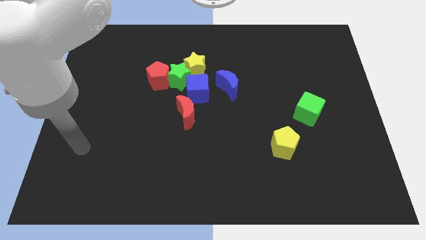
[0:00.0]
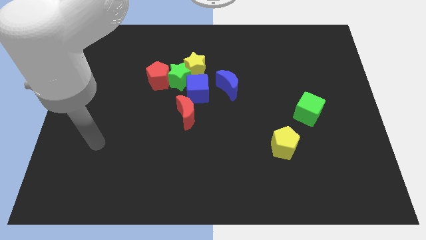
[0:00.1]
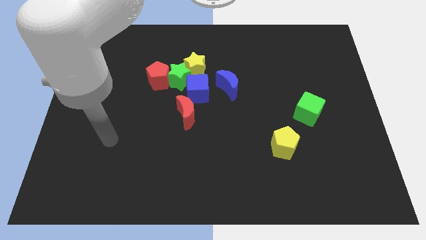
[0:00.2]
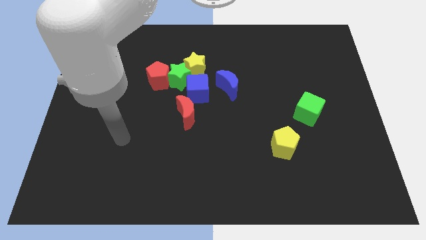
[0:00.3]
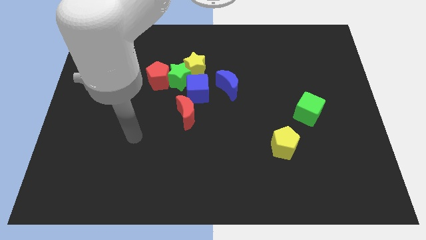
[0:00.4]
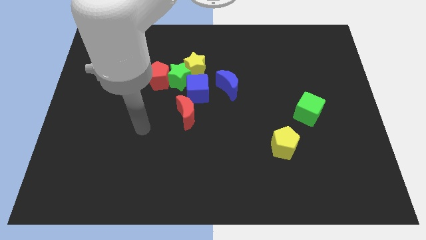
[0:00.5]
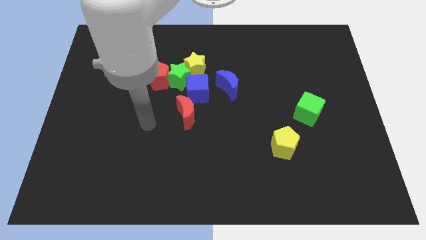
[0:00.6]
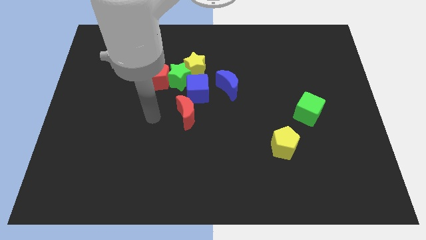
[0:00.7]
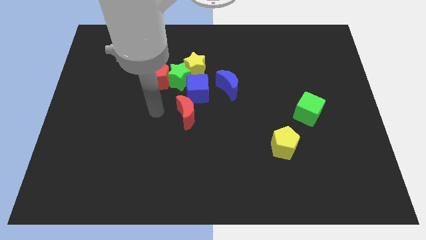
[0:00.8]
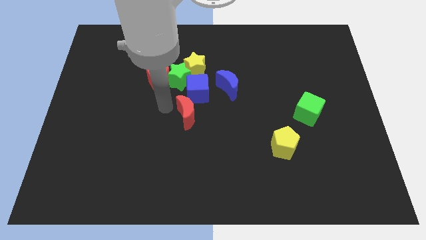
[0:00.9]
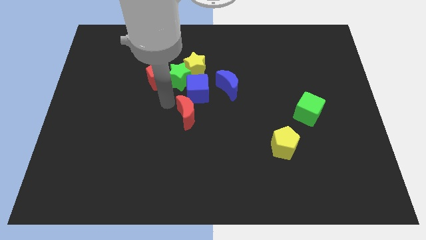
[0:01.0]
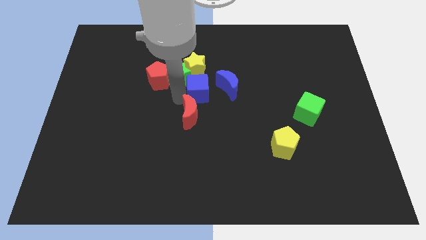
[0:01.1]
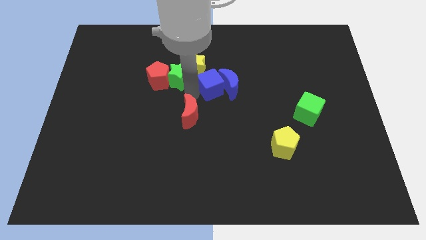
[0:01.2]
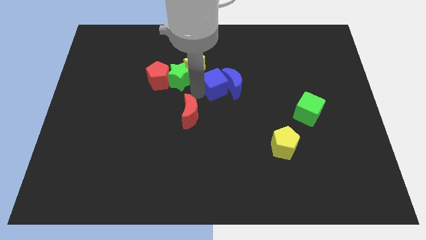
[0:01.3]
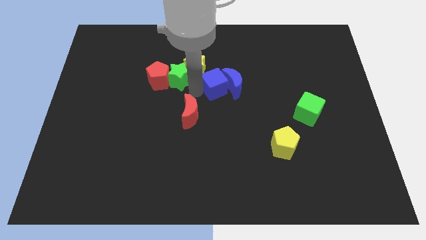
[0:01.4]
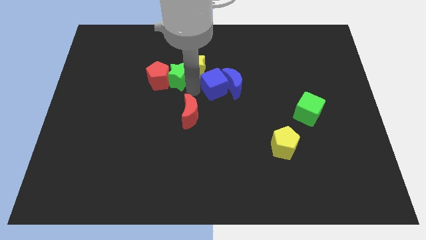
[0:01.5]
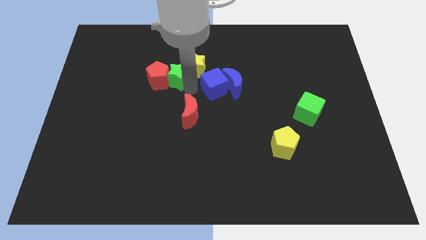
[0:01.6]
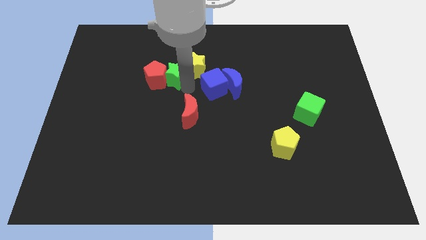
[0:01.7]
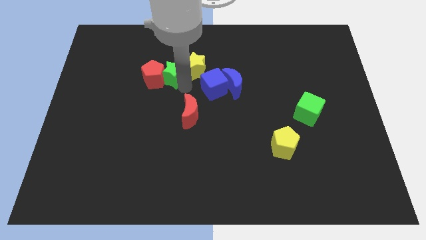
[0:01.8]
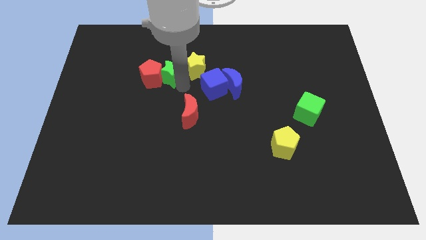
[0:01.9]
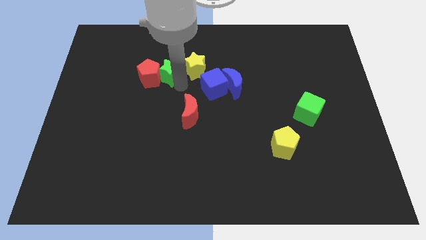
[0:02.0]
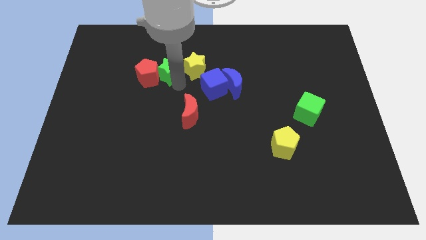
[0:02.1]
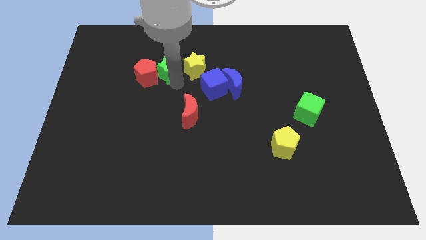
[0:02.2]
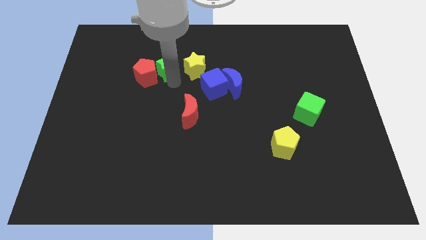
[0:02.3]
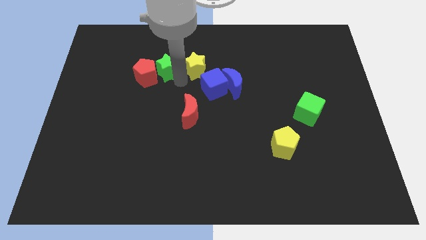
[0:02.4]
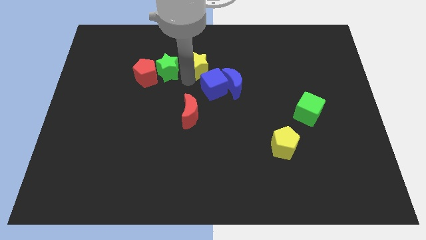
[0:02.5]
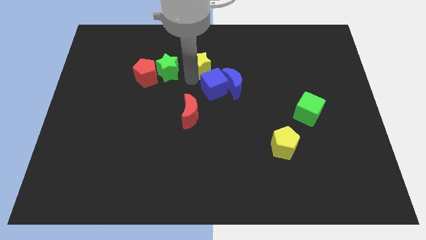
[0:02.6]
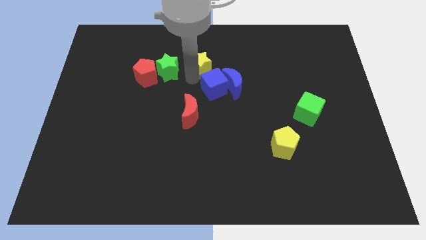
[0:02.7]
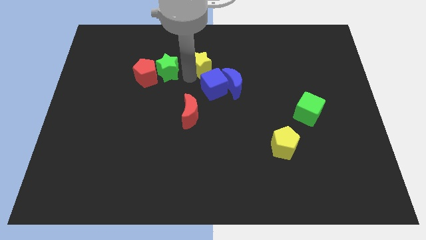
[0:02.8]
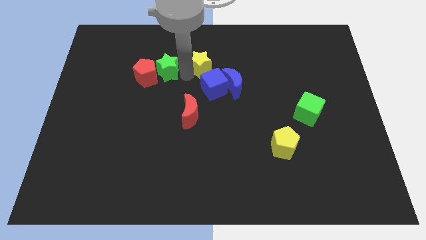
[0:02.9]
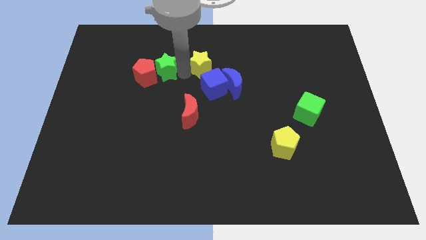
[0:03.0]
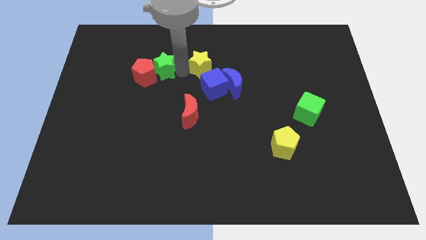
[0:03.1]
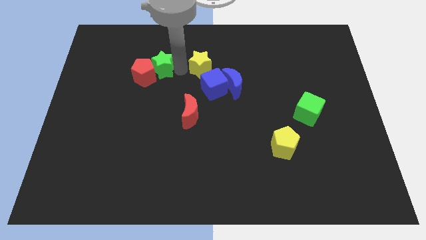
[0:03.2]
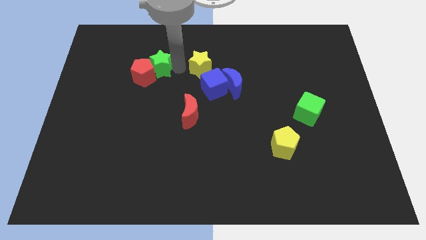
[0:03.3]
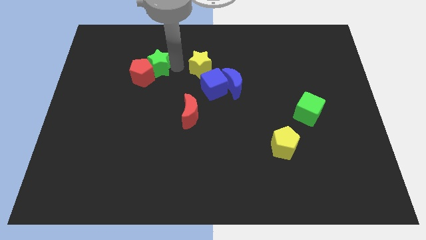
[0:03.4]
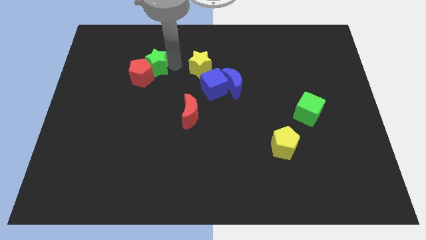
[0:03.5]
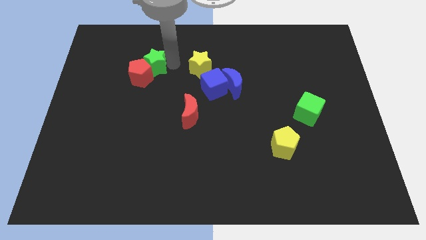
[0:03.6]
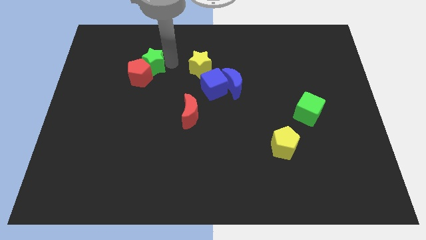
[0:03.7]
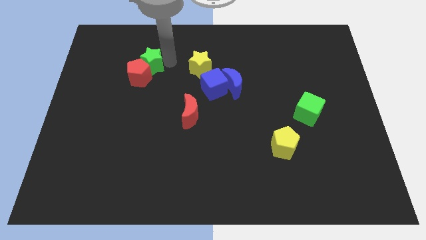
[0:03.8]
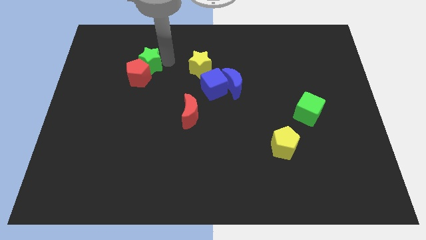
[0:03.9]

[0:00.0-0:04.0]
pull the green star apart from the clump

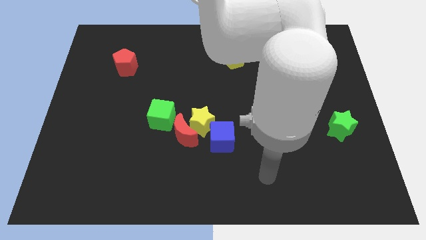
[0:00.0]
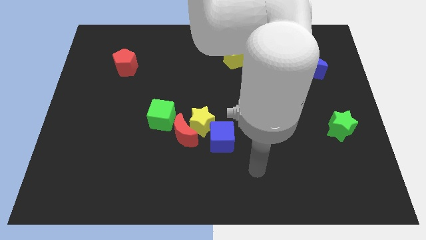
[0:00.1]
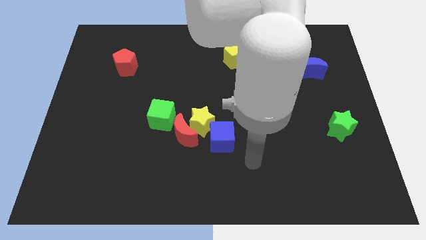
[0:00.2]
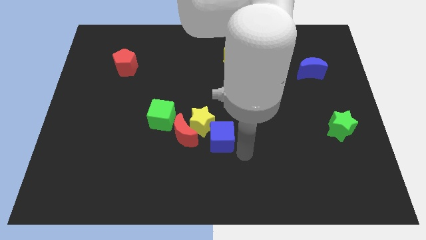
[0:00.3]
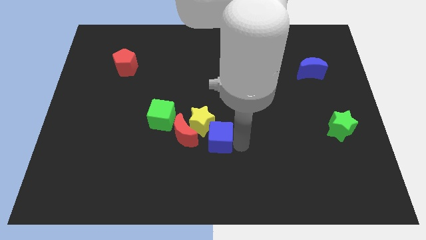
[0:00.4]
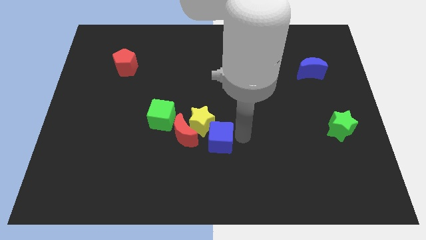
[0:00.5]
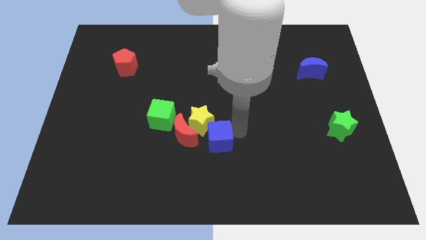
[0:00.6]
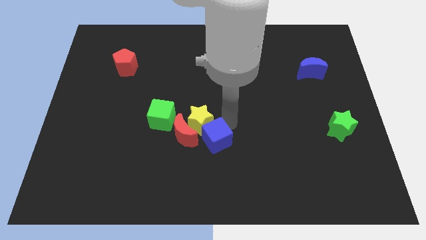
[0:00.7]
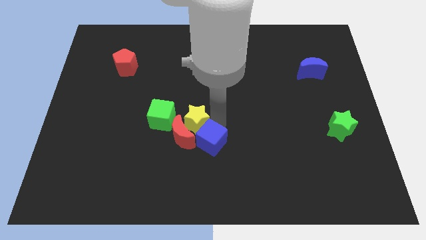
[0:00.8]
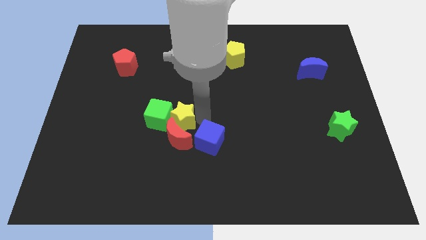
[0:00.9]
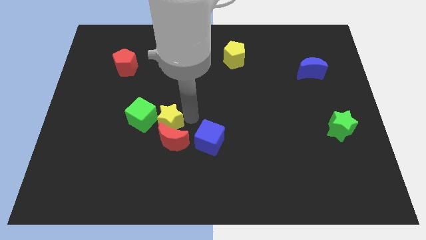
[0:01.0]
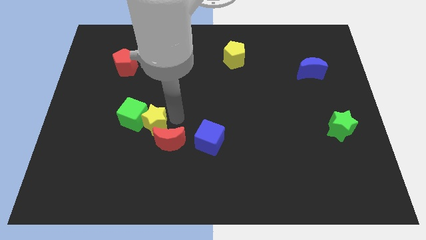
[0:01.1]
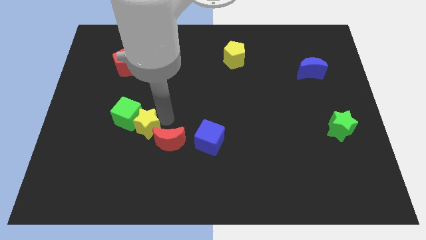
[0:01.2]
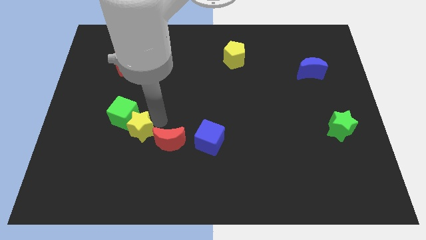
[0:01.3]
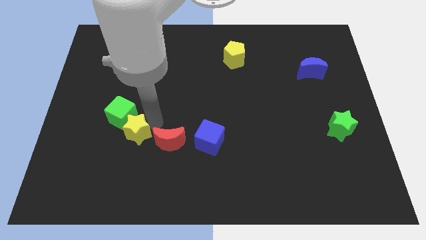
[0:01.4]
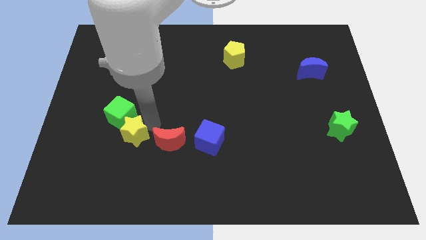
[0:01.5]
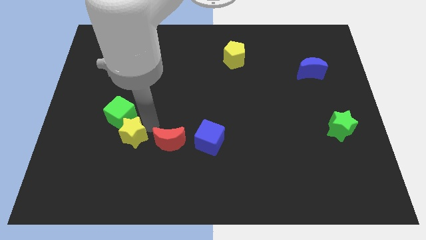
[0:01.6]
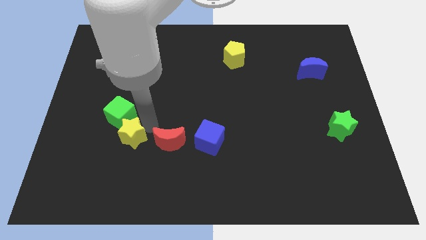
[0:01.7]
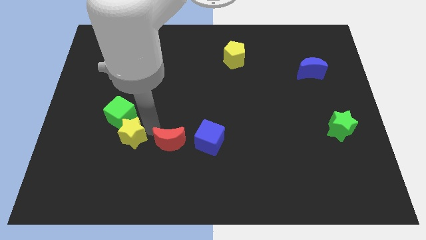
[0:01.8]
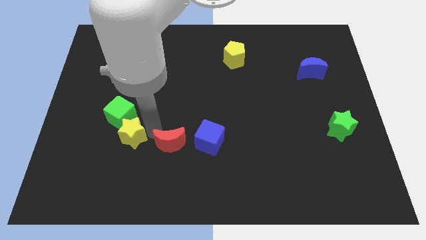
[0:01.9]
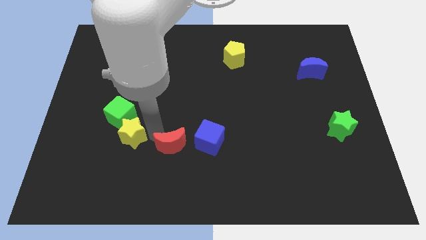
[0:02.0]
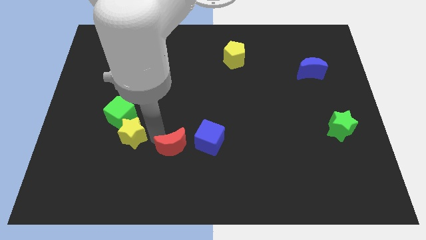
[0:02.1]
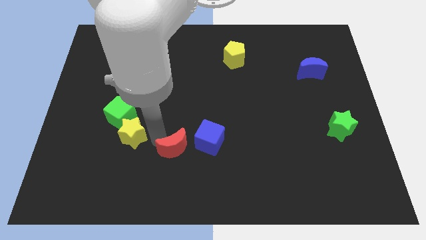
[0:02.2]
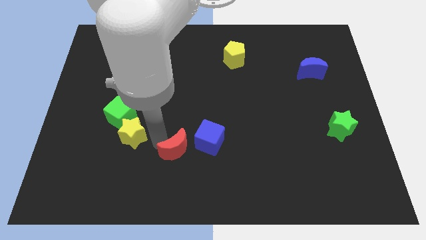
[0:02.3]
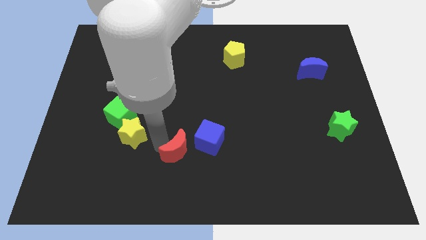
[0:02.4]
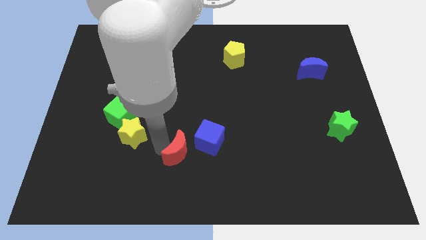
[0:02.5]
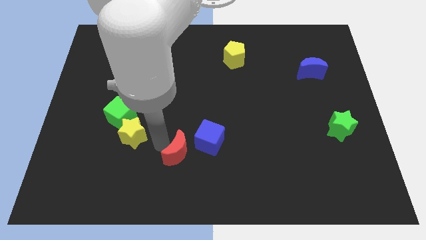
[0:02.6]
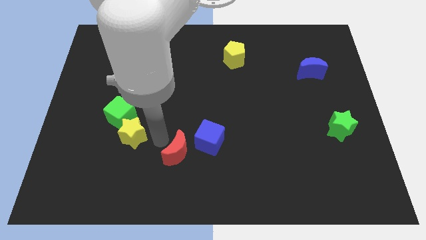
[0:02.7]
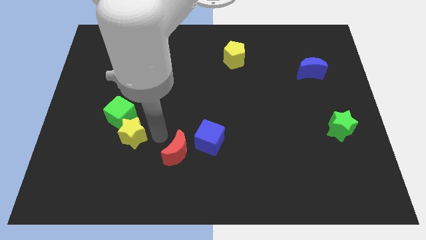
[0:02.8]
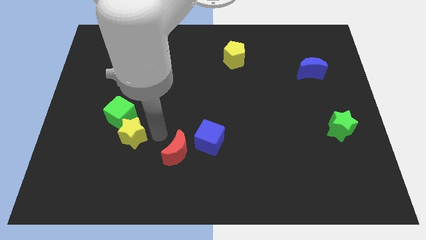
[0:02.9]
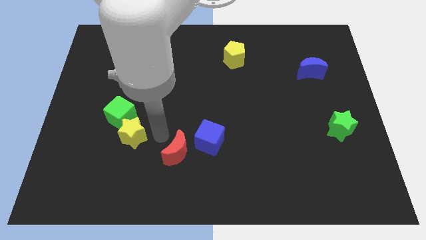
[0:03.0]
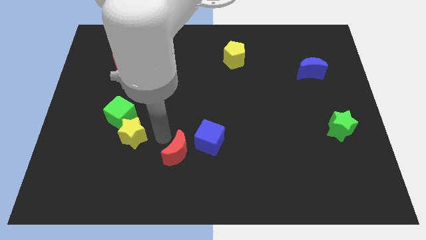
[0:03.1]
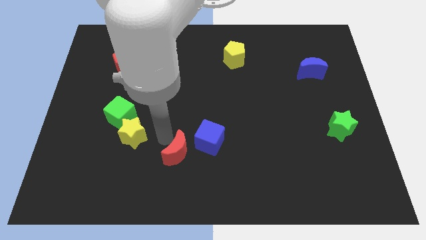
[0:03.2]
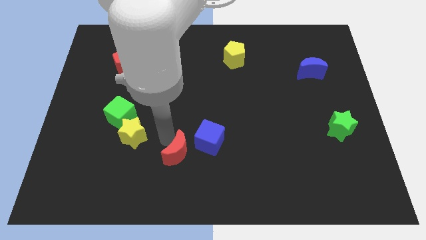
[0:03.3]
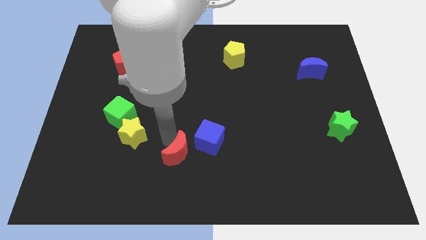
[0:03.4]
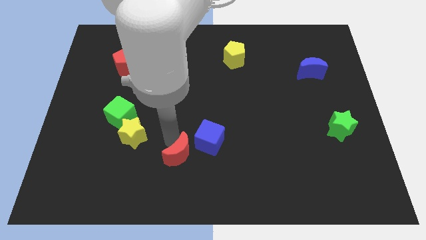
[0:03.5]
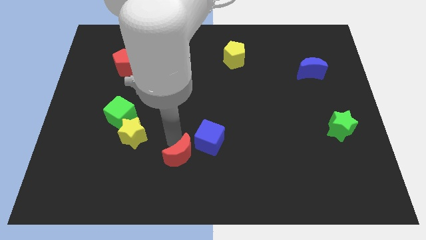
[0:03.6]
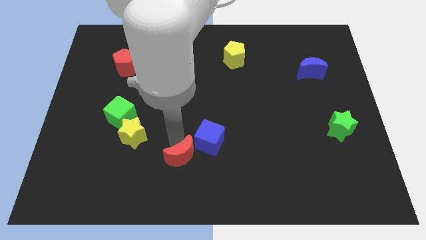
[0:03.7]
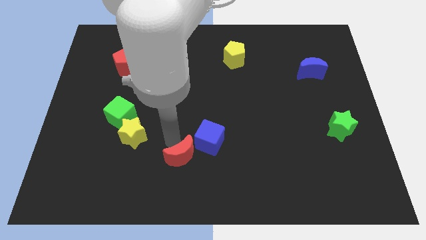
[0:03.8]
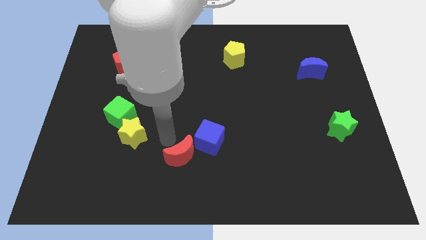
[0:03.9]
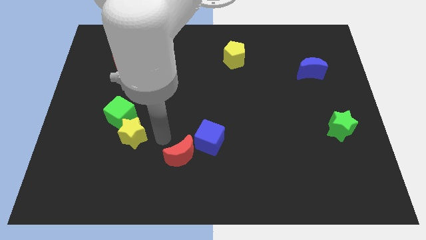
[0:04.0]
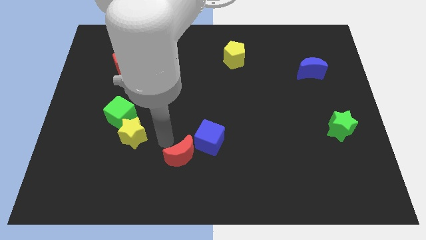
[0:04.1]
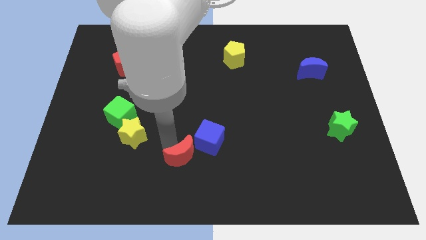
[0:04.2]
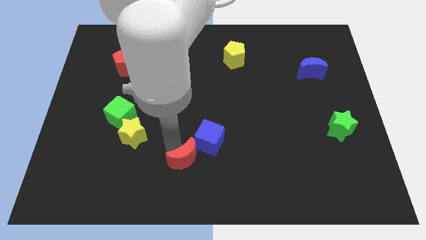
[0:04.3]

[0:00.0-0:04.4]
pull the red moon apart from the yellow star, green cube, and blue cube

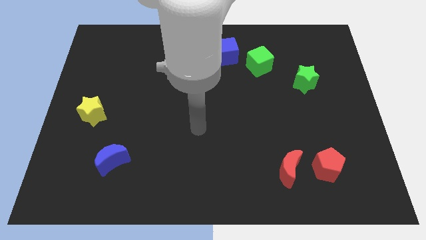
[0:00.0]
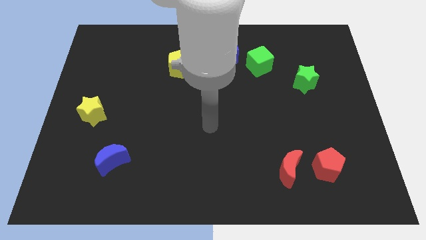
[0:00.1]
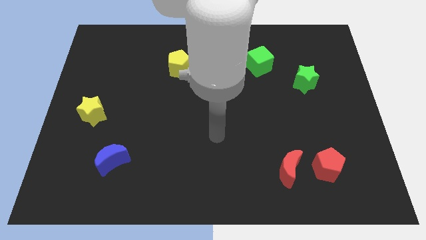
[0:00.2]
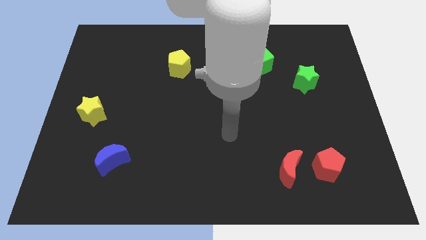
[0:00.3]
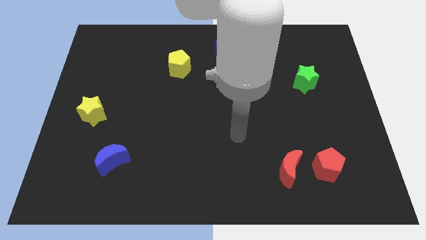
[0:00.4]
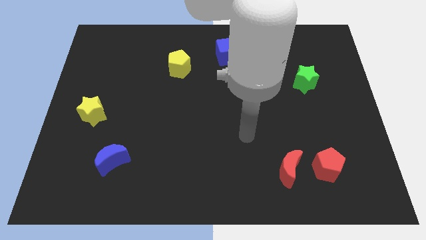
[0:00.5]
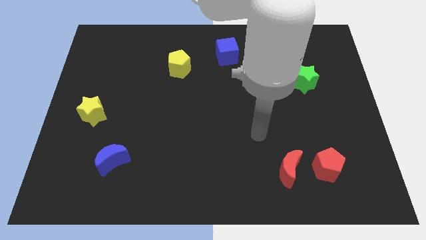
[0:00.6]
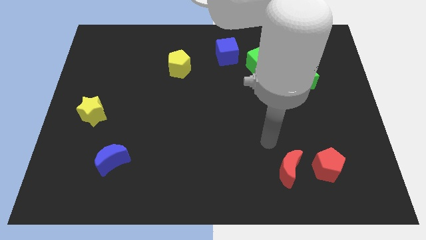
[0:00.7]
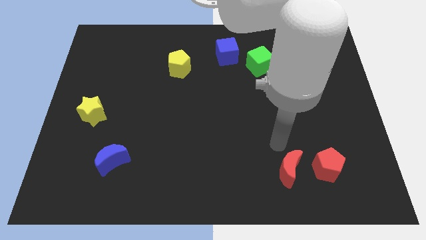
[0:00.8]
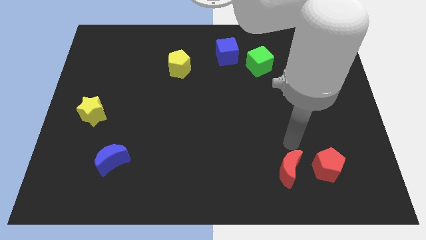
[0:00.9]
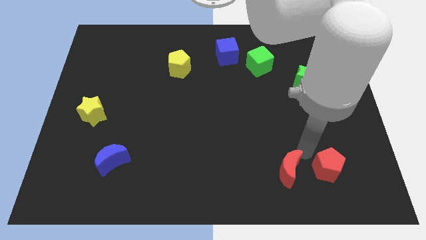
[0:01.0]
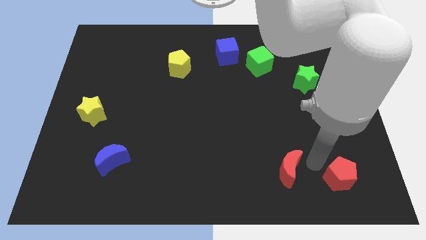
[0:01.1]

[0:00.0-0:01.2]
pull the red moon apart from the red pentagon
